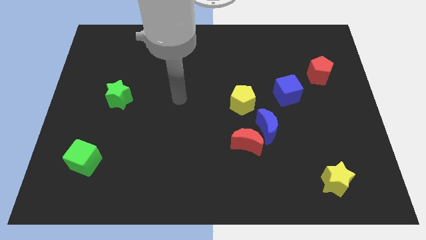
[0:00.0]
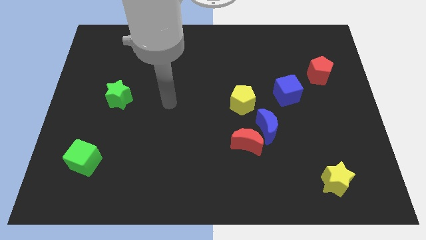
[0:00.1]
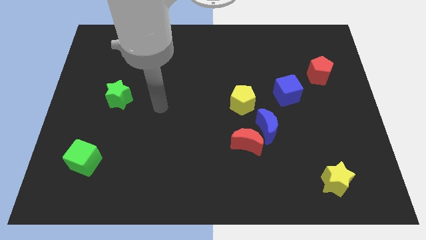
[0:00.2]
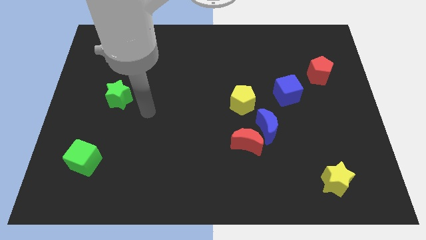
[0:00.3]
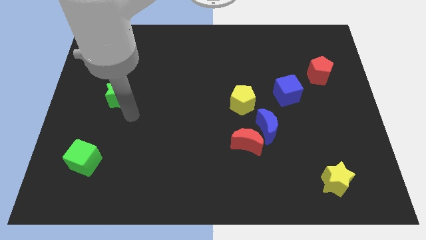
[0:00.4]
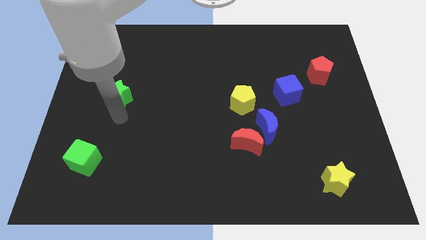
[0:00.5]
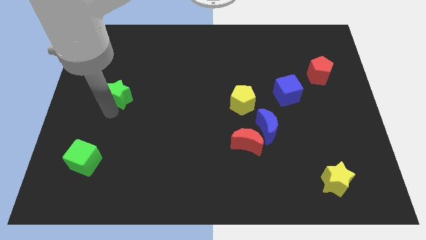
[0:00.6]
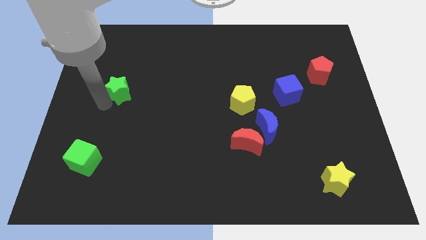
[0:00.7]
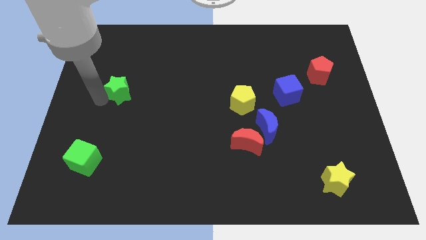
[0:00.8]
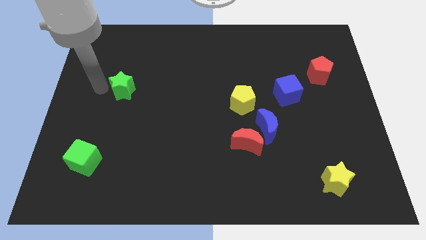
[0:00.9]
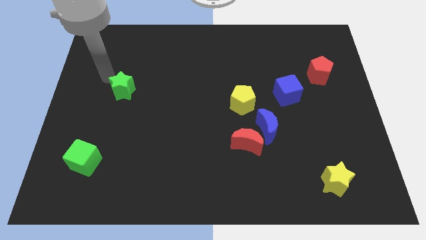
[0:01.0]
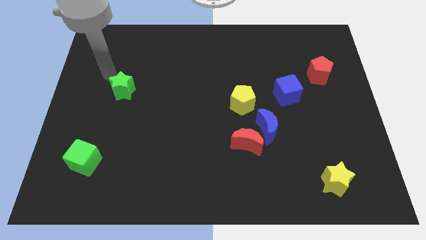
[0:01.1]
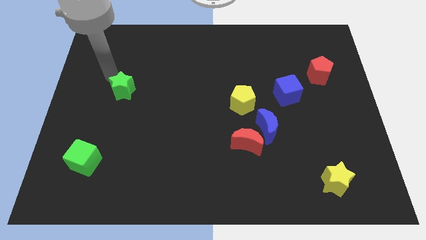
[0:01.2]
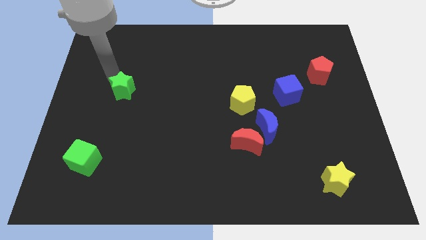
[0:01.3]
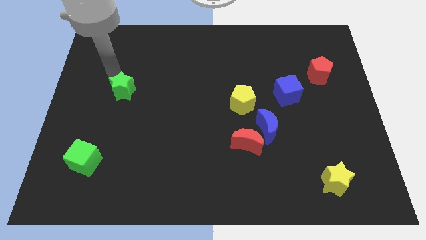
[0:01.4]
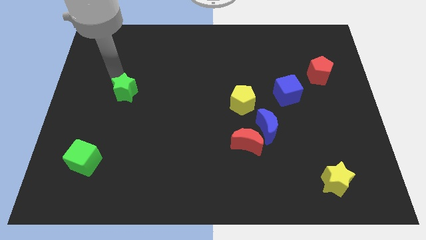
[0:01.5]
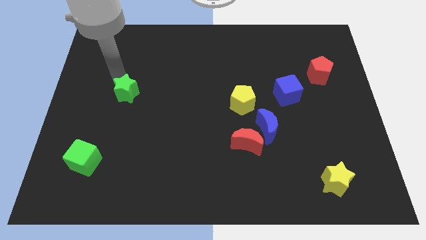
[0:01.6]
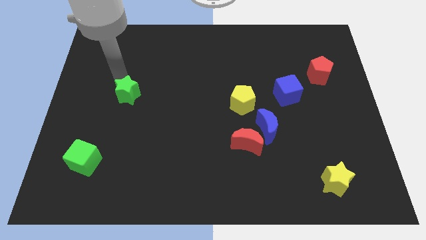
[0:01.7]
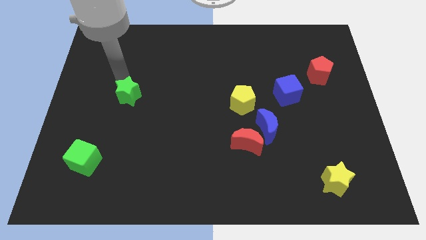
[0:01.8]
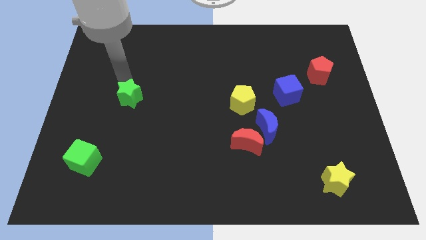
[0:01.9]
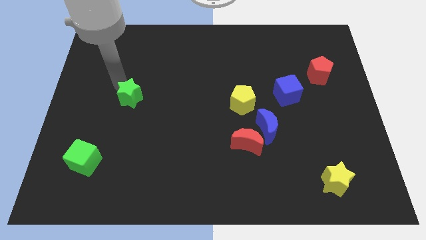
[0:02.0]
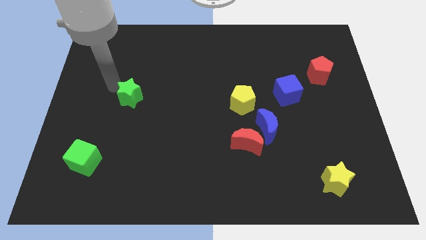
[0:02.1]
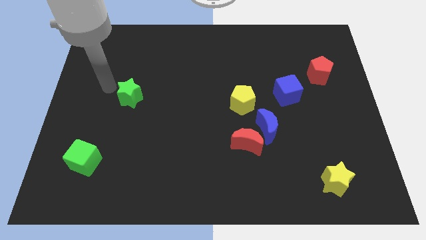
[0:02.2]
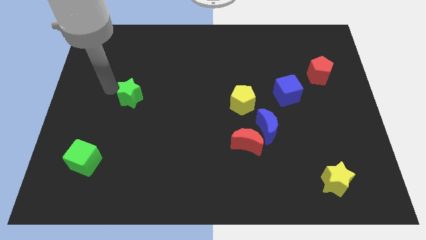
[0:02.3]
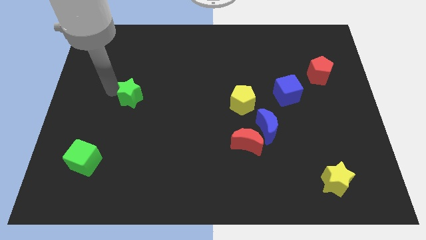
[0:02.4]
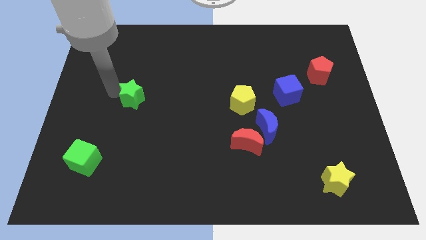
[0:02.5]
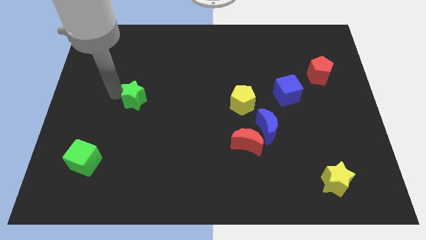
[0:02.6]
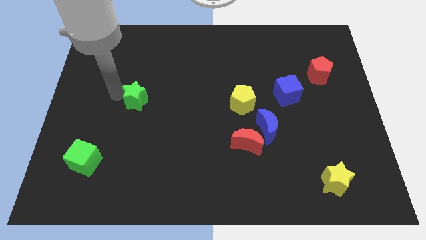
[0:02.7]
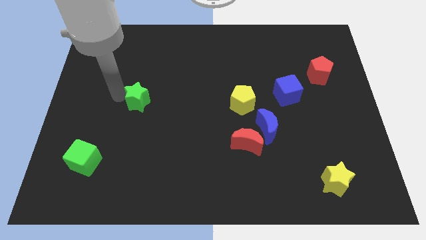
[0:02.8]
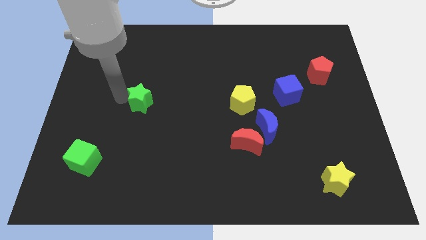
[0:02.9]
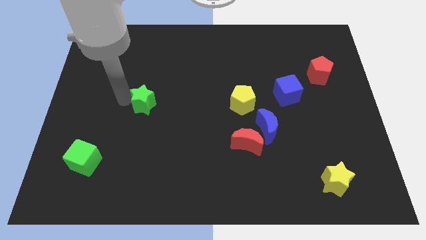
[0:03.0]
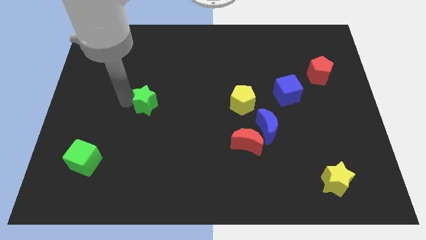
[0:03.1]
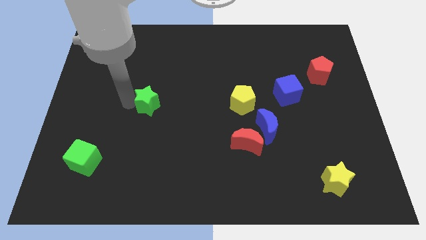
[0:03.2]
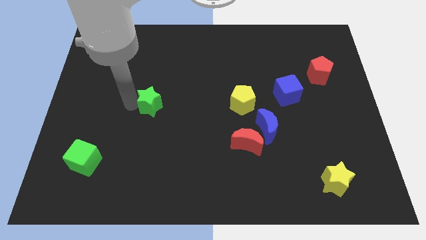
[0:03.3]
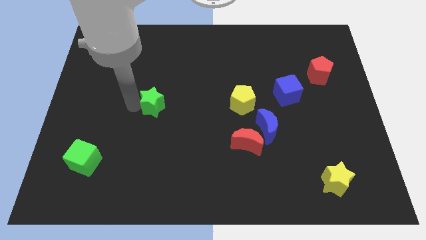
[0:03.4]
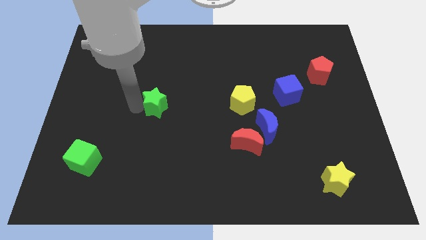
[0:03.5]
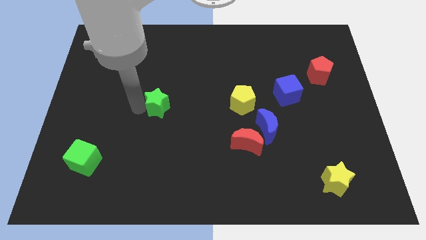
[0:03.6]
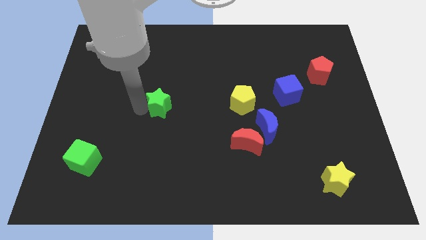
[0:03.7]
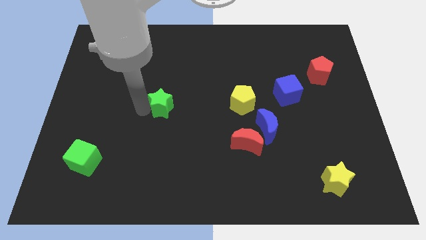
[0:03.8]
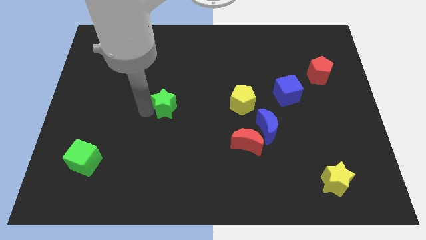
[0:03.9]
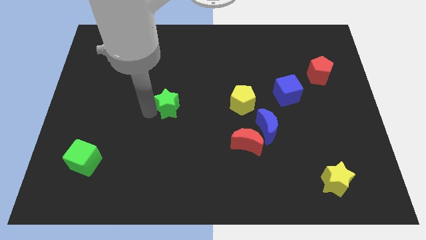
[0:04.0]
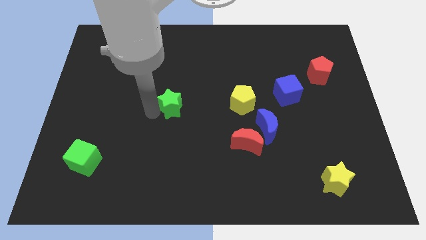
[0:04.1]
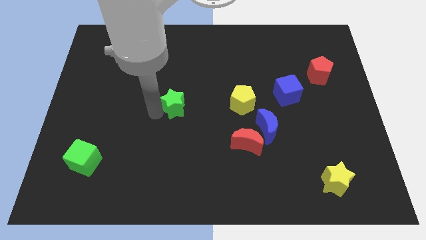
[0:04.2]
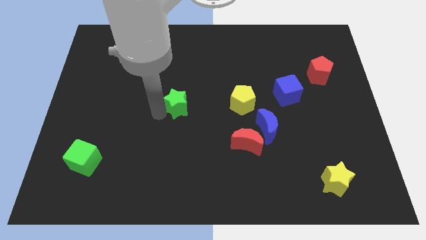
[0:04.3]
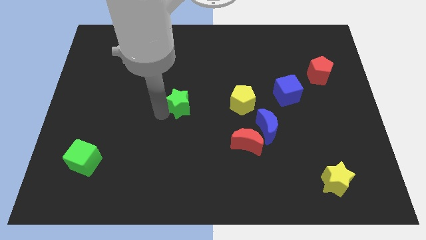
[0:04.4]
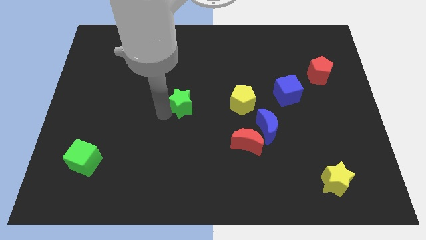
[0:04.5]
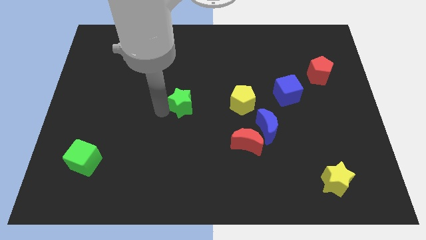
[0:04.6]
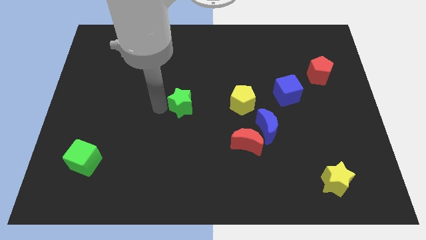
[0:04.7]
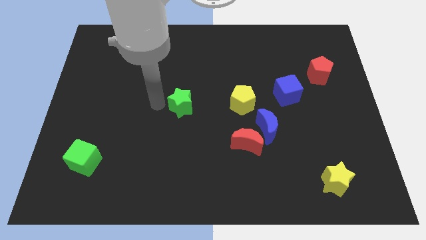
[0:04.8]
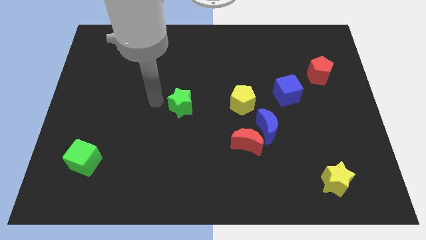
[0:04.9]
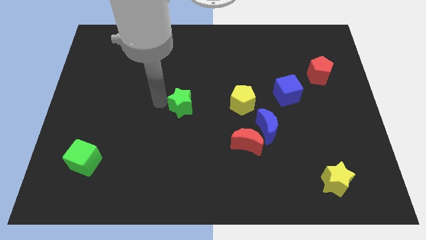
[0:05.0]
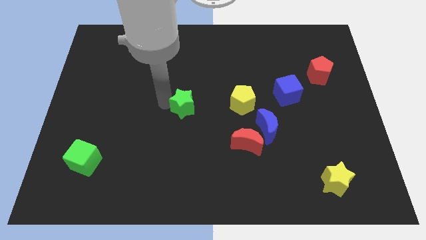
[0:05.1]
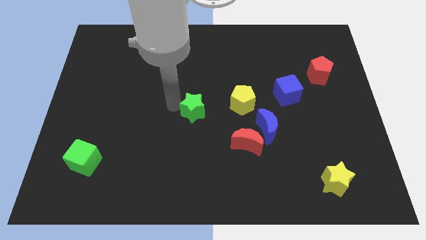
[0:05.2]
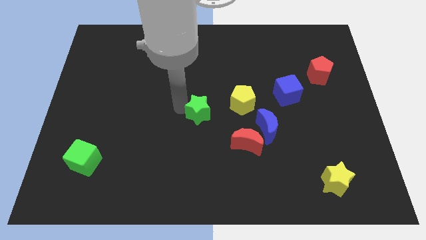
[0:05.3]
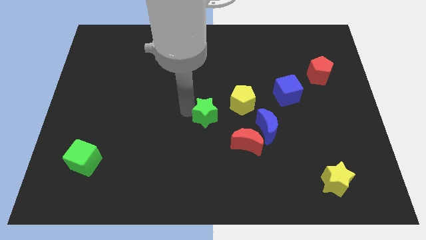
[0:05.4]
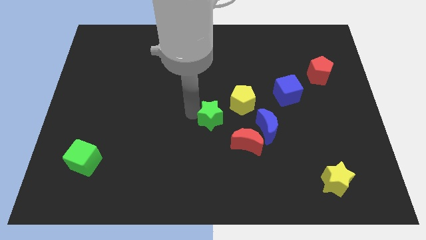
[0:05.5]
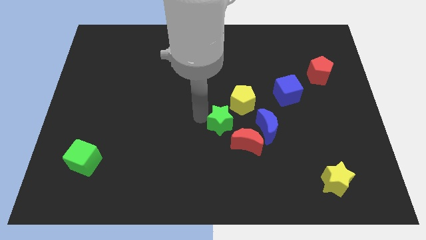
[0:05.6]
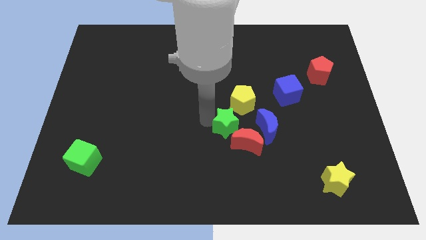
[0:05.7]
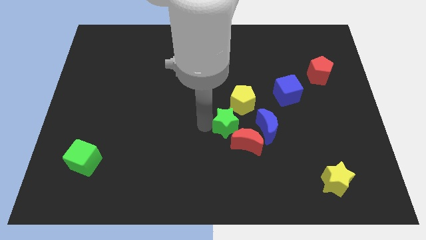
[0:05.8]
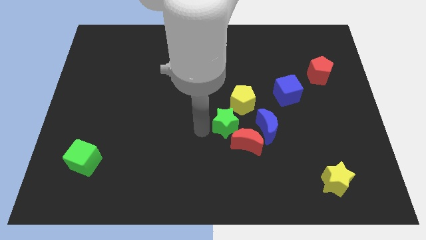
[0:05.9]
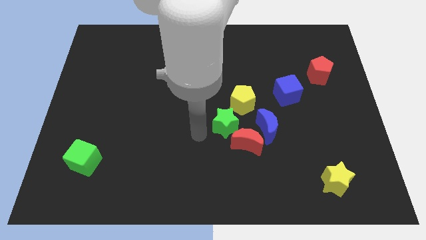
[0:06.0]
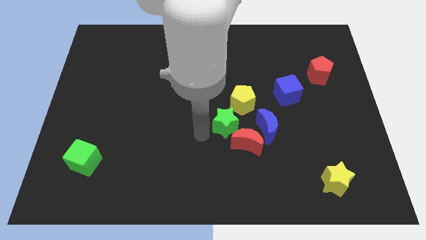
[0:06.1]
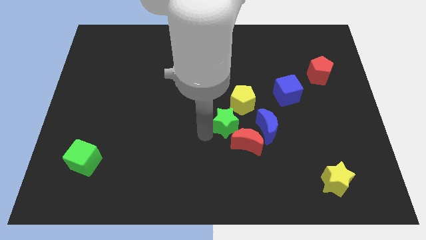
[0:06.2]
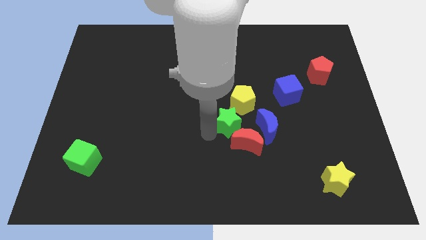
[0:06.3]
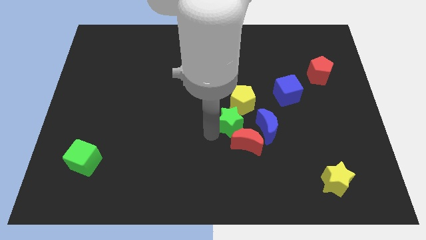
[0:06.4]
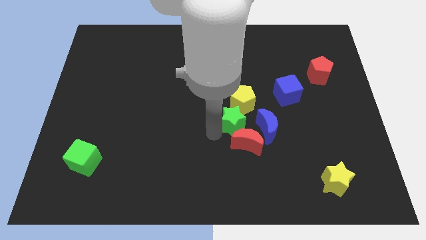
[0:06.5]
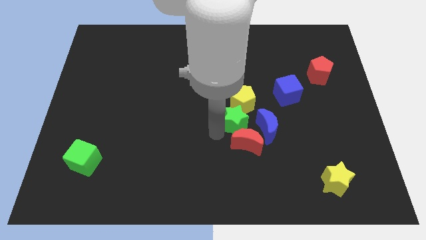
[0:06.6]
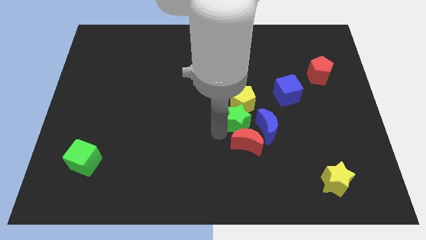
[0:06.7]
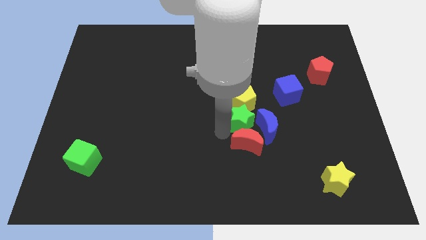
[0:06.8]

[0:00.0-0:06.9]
push the green star next to the blue moon

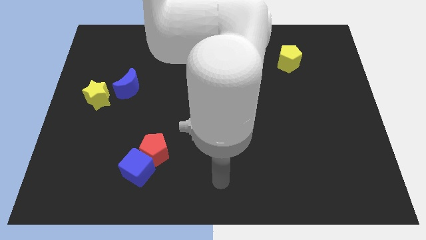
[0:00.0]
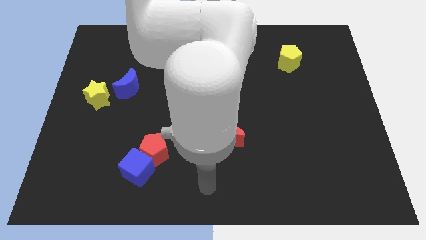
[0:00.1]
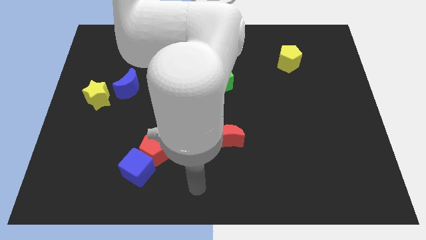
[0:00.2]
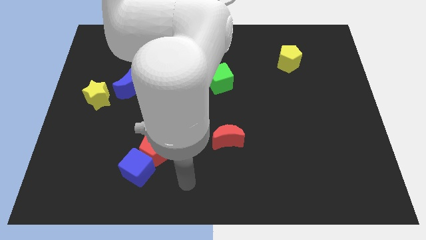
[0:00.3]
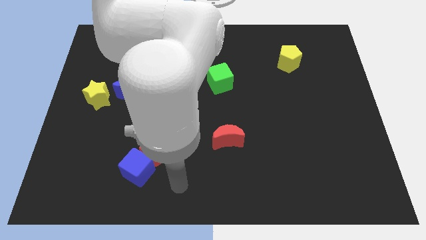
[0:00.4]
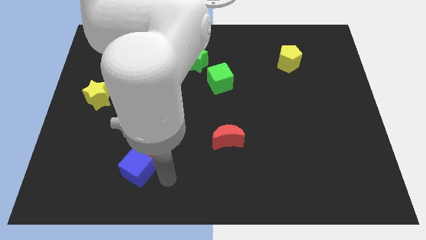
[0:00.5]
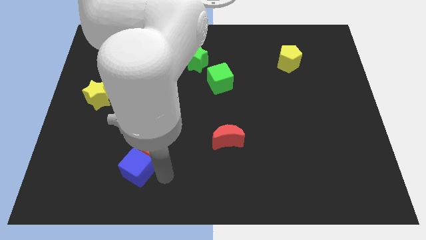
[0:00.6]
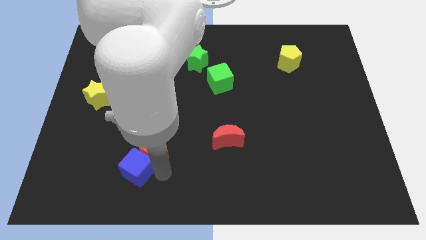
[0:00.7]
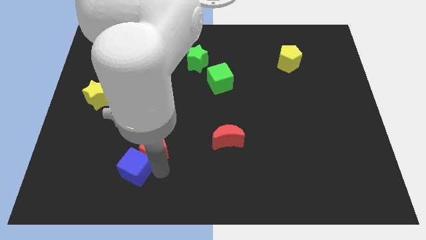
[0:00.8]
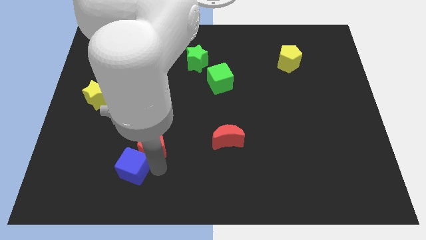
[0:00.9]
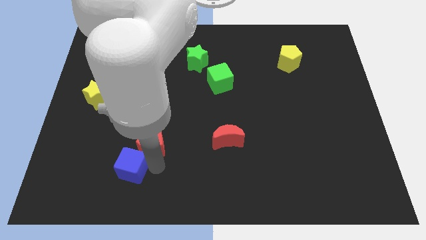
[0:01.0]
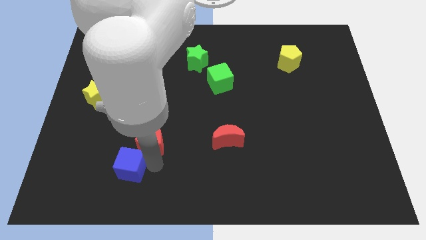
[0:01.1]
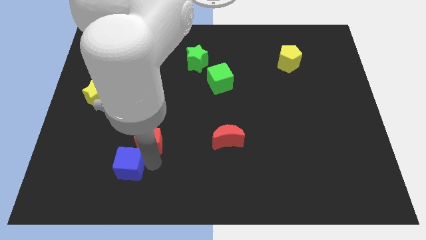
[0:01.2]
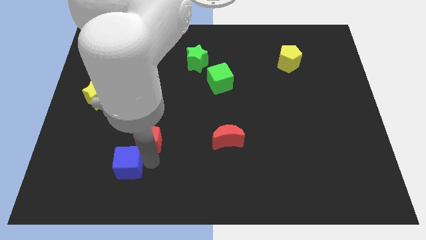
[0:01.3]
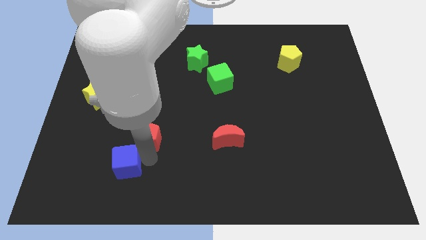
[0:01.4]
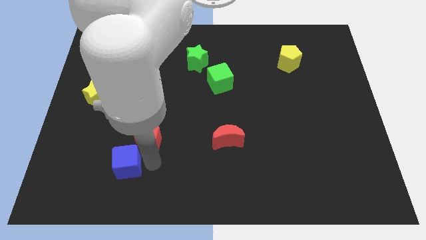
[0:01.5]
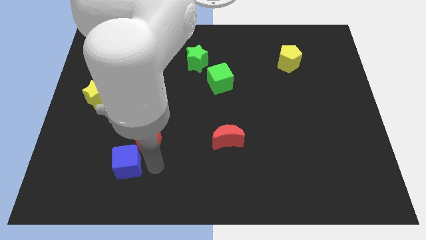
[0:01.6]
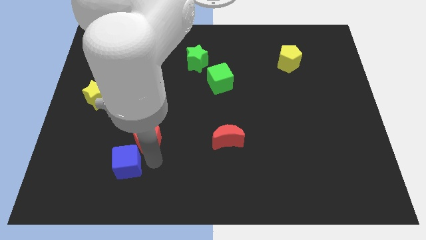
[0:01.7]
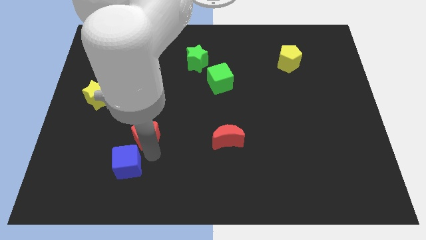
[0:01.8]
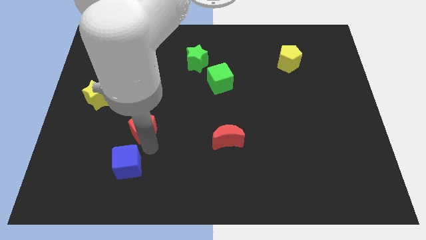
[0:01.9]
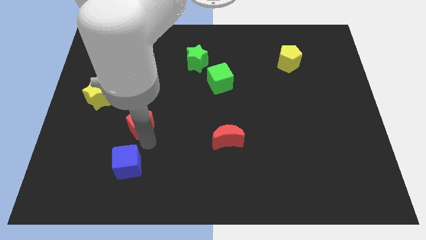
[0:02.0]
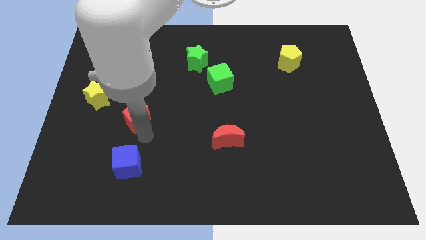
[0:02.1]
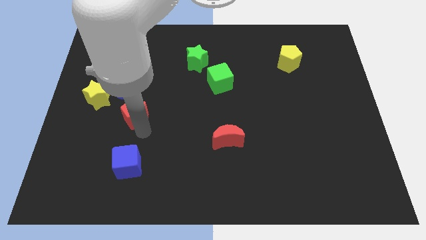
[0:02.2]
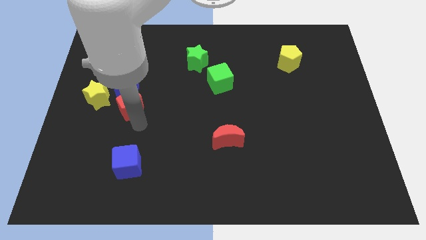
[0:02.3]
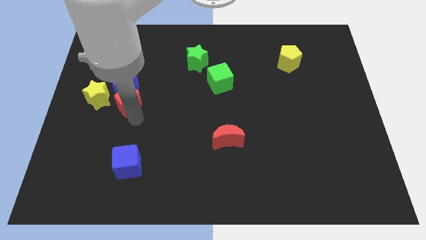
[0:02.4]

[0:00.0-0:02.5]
slide the red pentagon next to the blue moon
